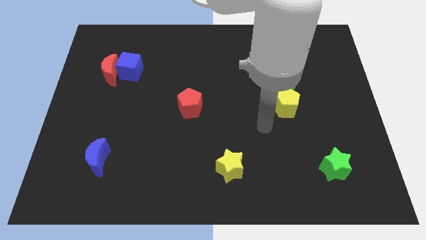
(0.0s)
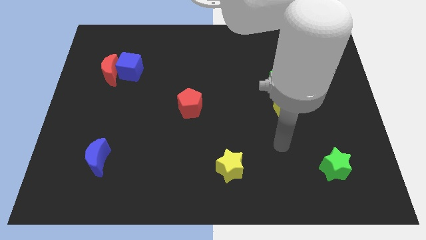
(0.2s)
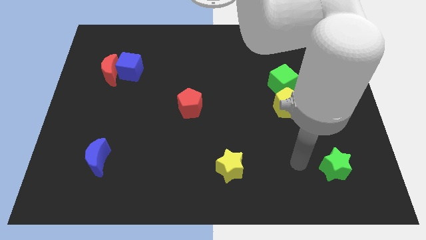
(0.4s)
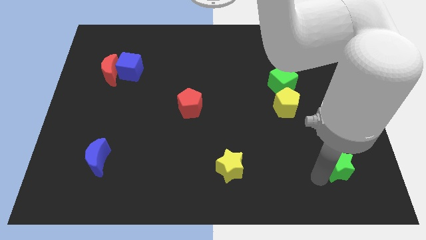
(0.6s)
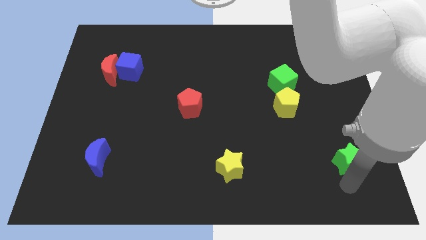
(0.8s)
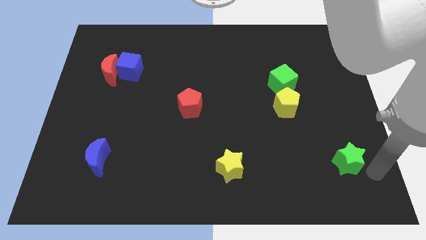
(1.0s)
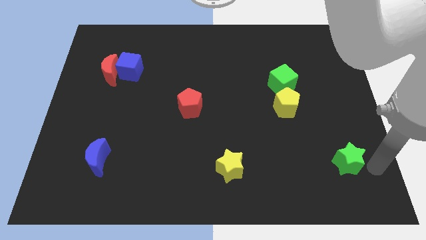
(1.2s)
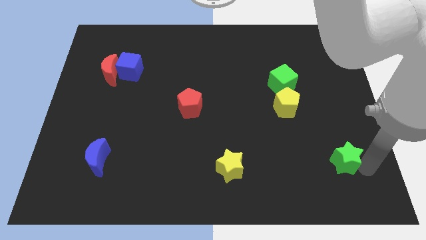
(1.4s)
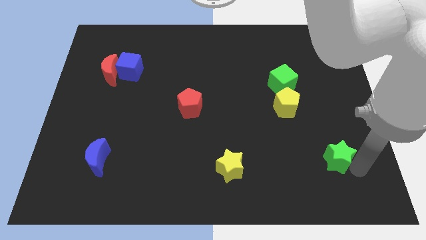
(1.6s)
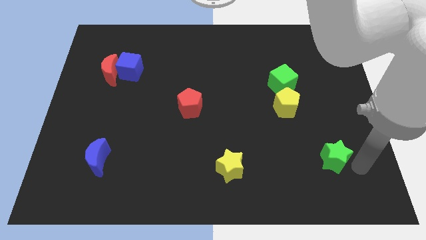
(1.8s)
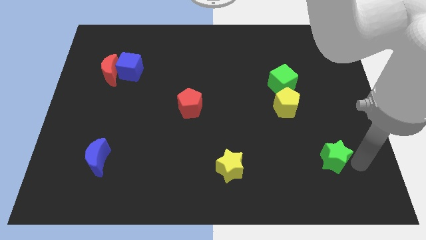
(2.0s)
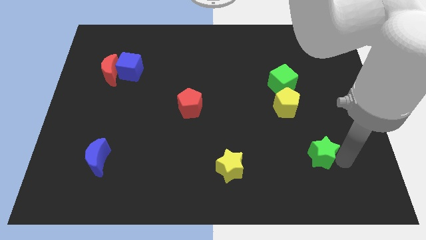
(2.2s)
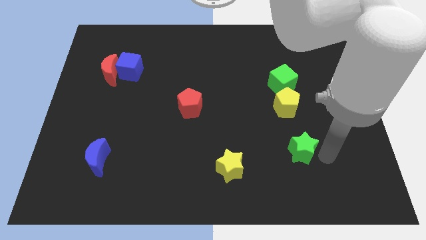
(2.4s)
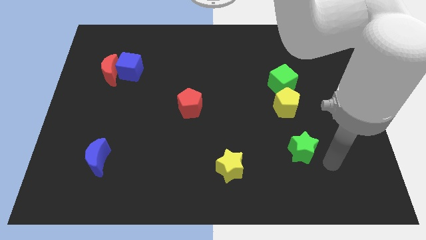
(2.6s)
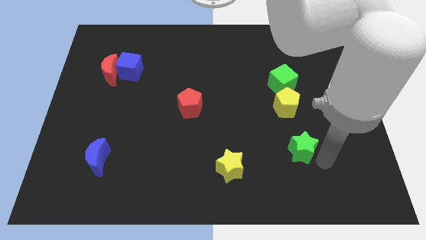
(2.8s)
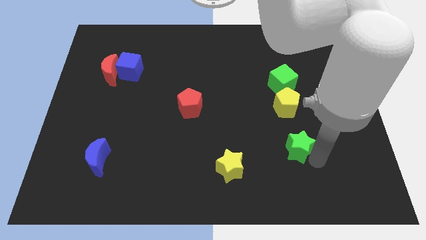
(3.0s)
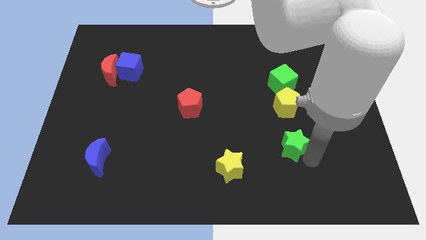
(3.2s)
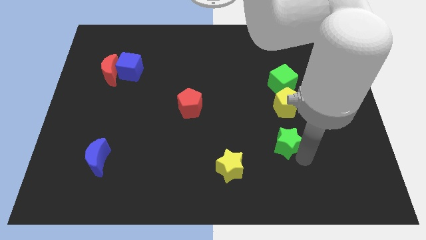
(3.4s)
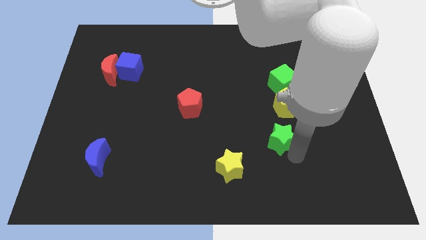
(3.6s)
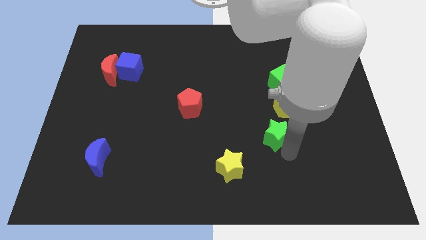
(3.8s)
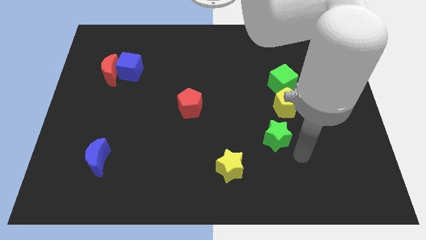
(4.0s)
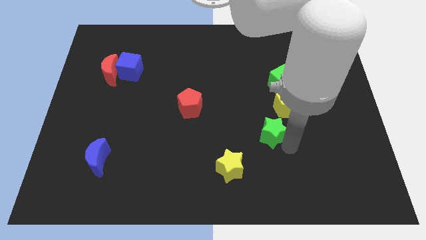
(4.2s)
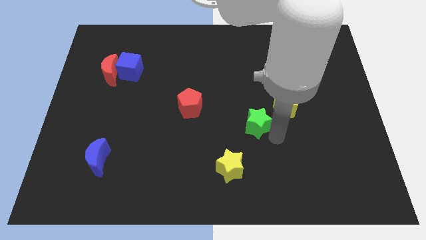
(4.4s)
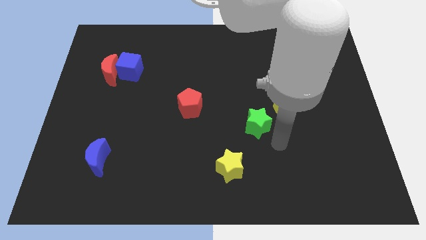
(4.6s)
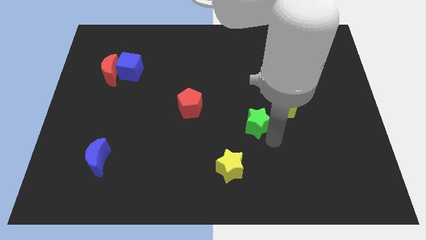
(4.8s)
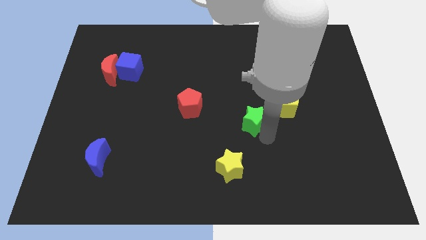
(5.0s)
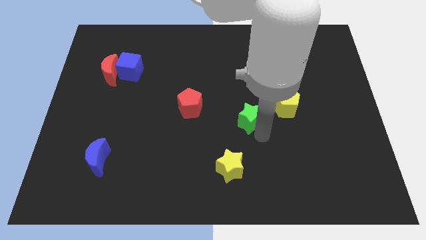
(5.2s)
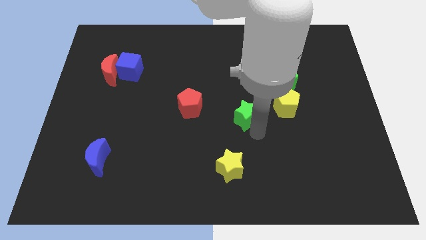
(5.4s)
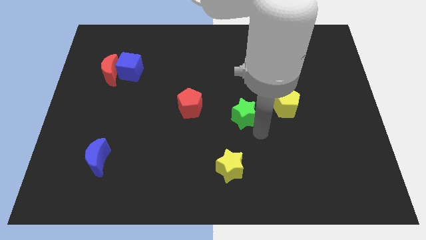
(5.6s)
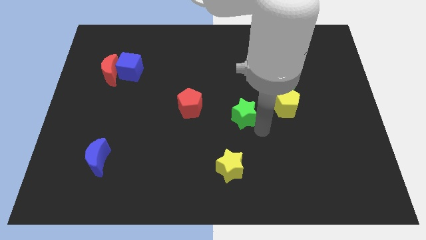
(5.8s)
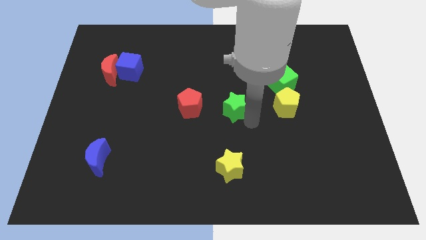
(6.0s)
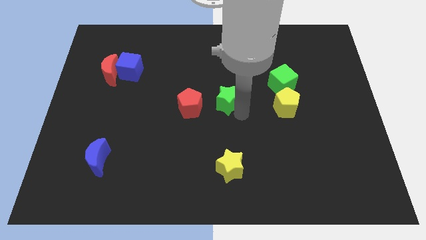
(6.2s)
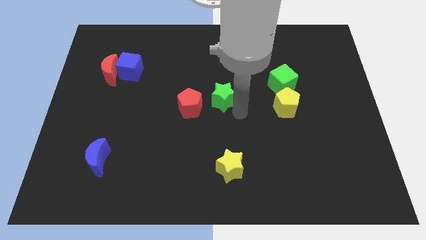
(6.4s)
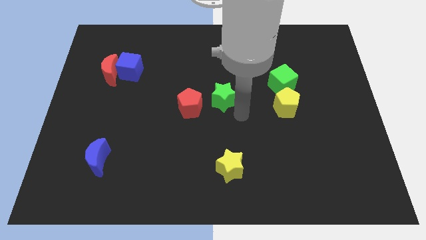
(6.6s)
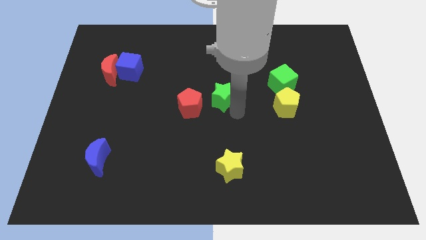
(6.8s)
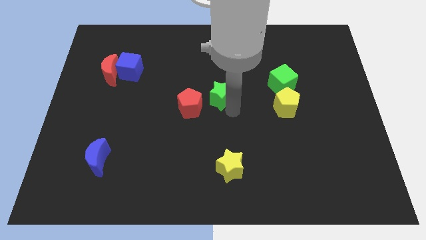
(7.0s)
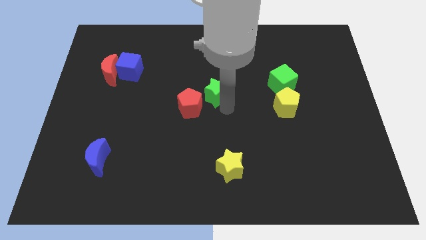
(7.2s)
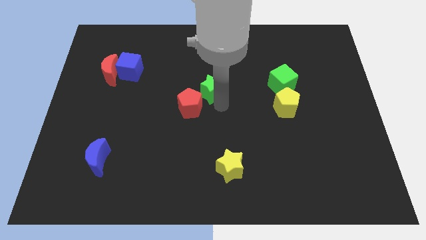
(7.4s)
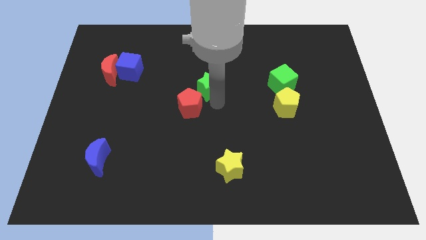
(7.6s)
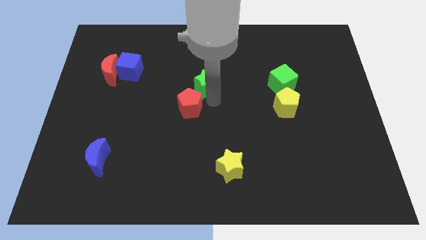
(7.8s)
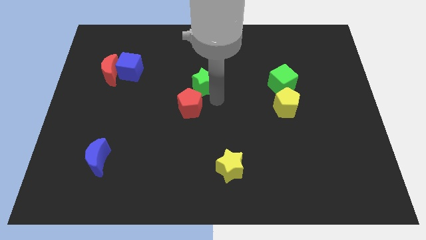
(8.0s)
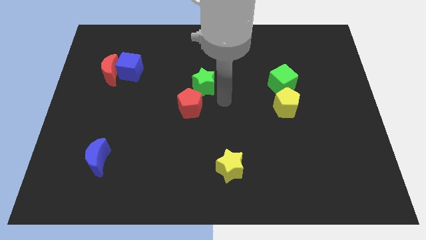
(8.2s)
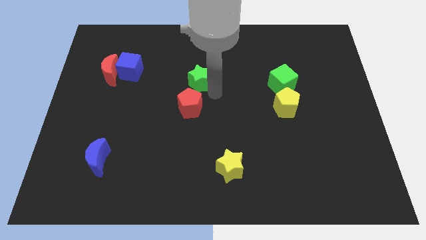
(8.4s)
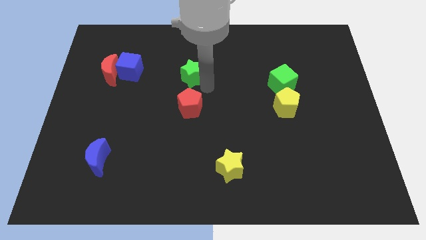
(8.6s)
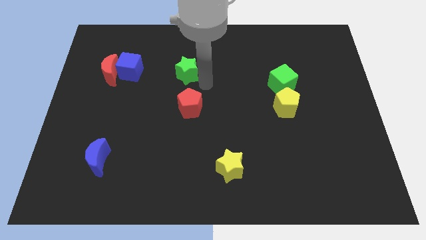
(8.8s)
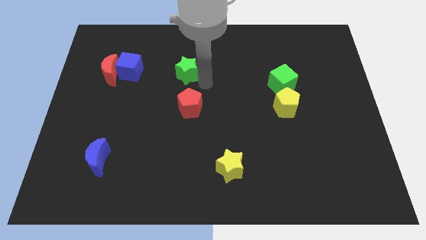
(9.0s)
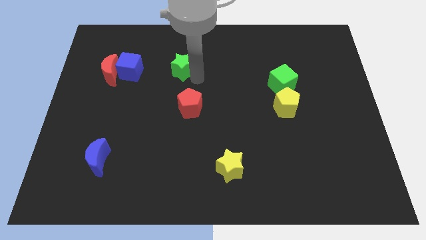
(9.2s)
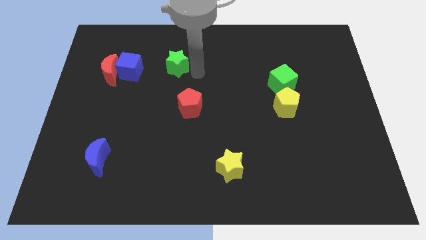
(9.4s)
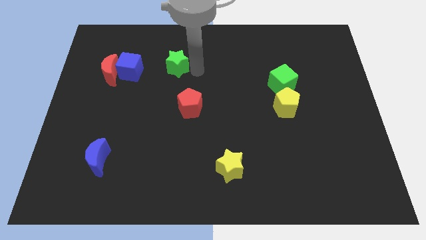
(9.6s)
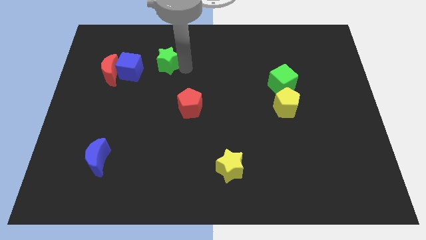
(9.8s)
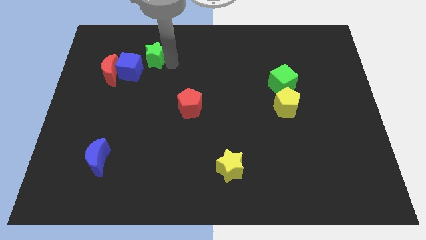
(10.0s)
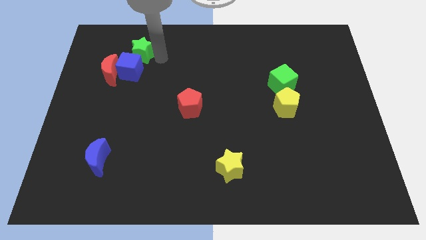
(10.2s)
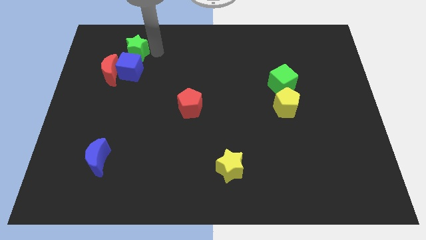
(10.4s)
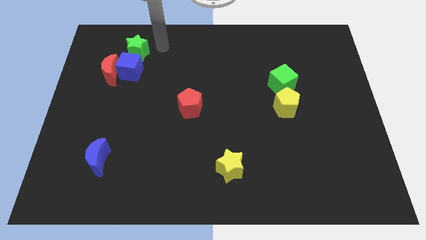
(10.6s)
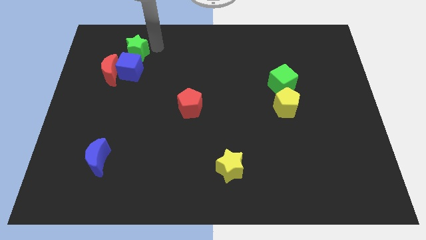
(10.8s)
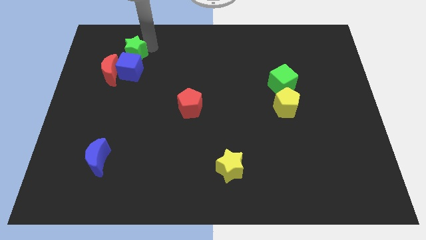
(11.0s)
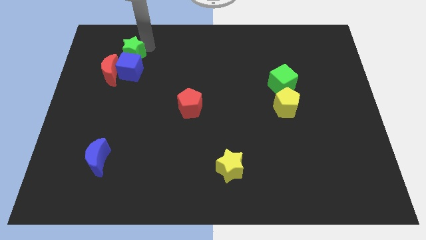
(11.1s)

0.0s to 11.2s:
move the green star diagonally up and to the left of the blue cube

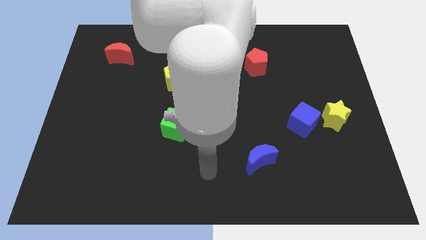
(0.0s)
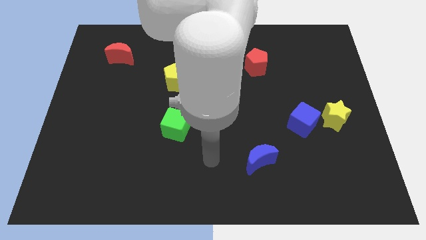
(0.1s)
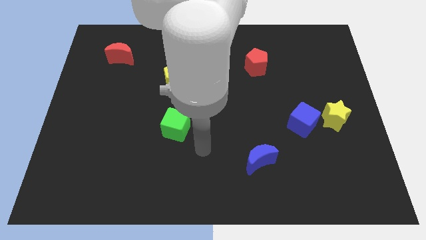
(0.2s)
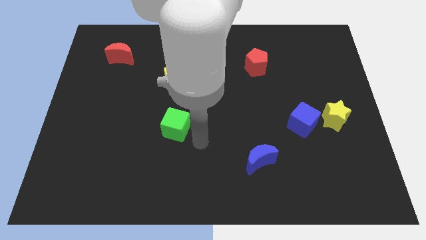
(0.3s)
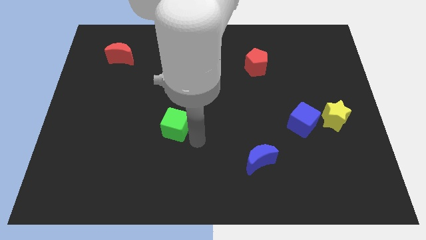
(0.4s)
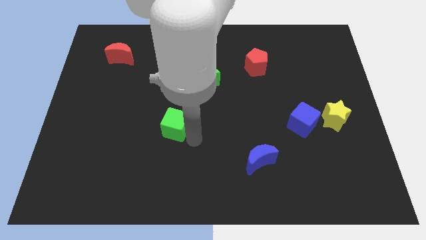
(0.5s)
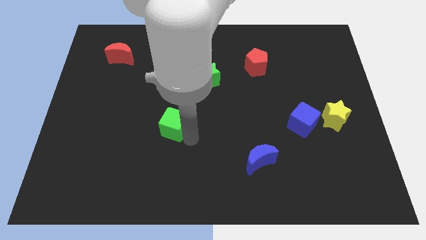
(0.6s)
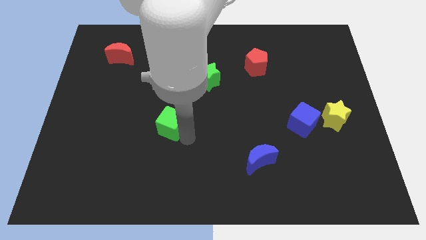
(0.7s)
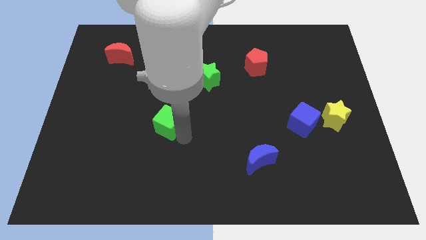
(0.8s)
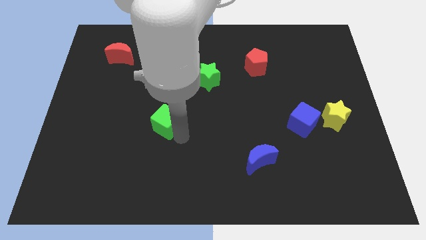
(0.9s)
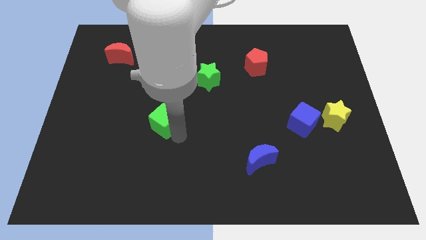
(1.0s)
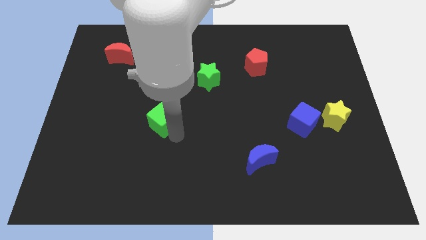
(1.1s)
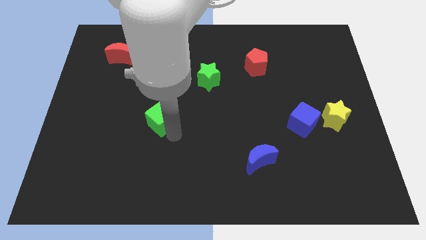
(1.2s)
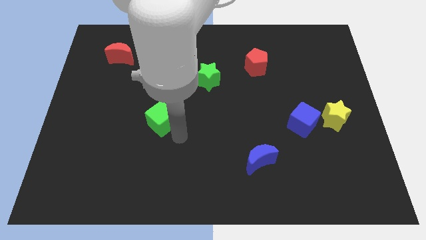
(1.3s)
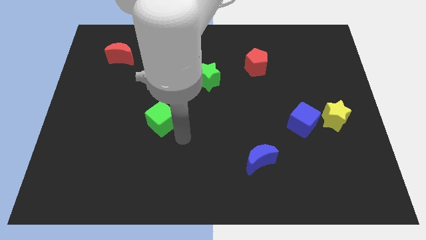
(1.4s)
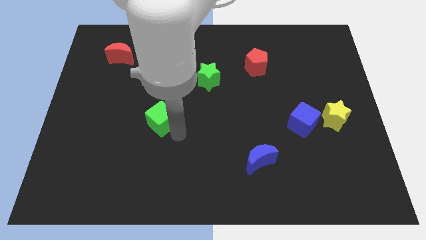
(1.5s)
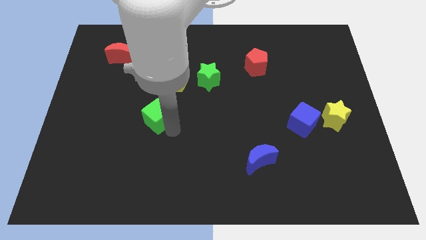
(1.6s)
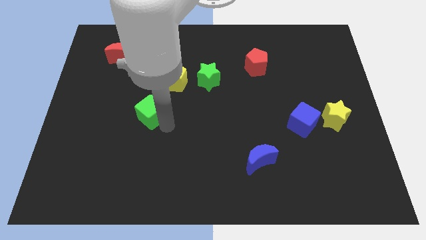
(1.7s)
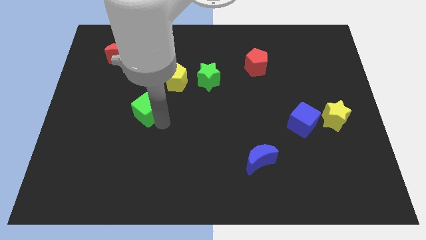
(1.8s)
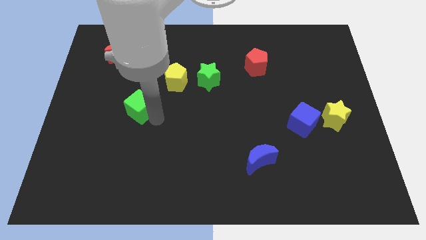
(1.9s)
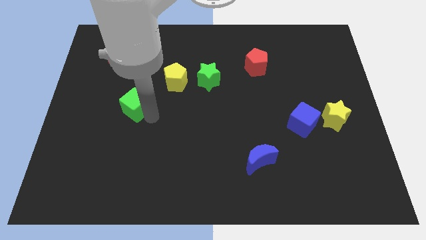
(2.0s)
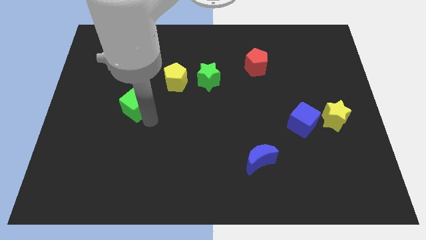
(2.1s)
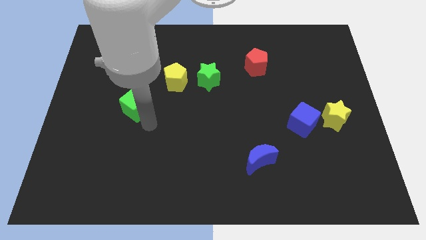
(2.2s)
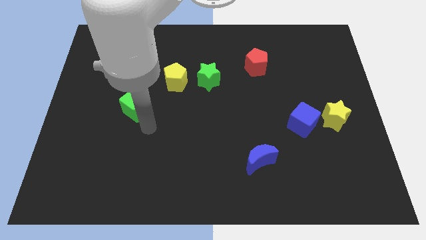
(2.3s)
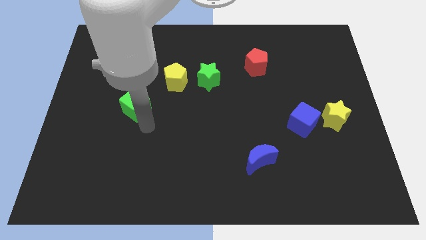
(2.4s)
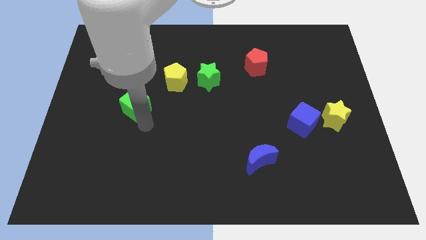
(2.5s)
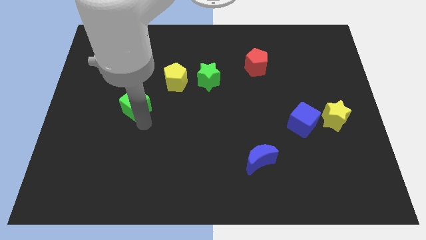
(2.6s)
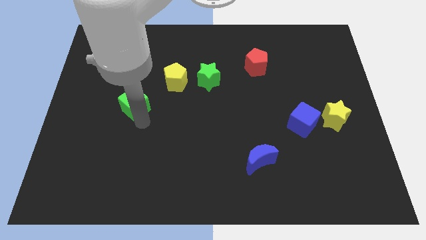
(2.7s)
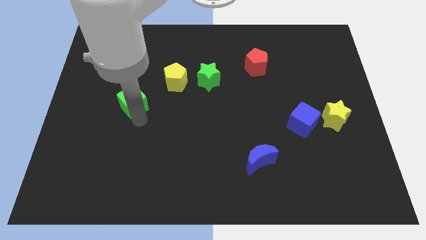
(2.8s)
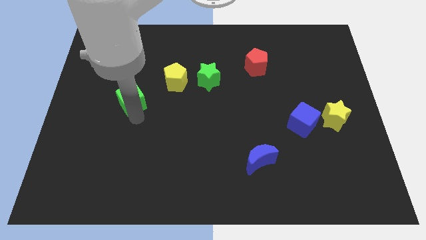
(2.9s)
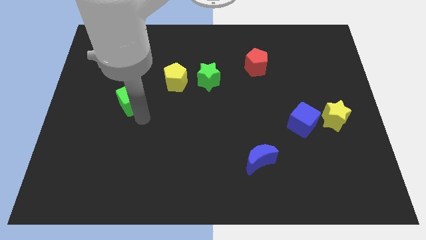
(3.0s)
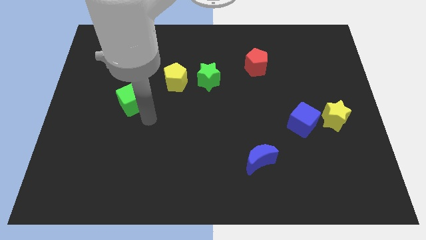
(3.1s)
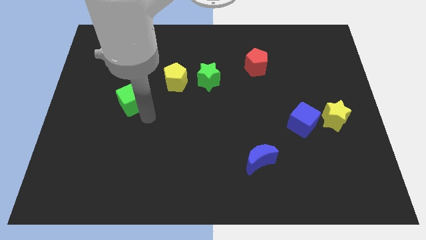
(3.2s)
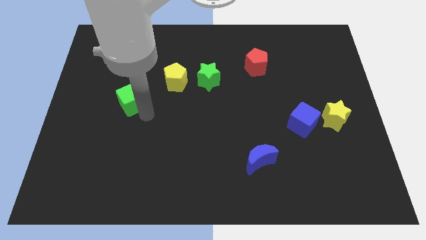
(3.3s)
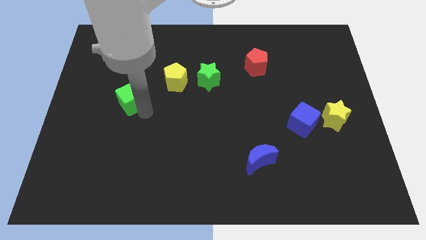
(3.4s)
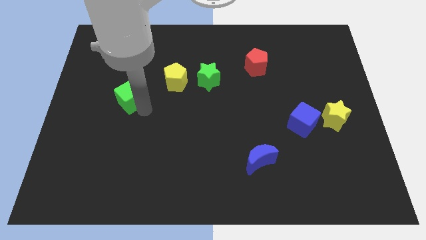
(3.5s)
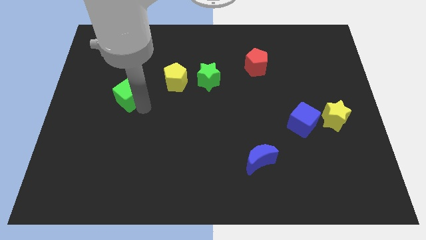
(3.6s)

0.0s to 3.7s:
push the green cube to the bottom side of the red moon
